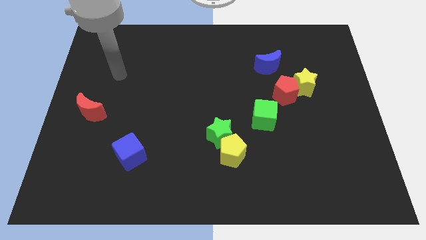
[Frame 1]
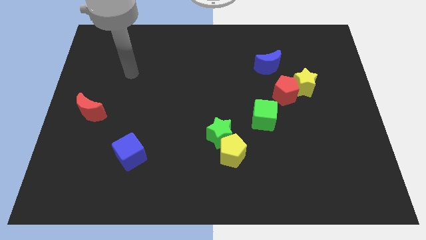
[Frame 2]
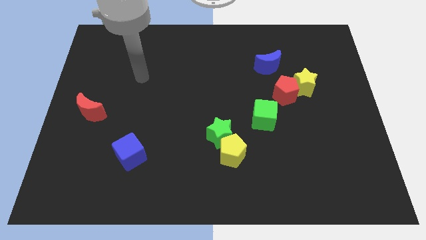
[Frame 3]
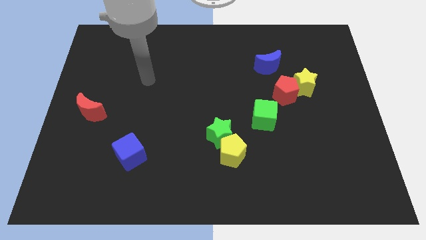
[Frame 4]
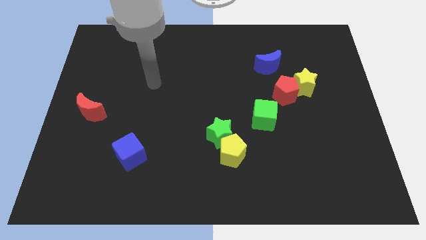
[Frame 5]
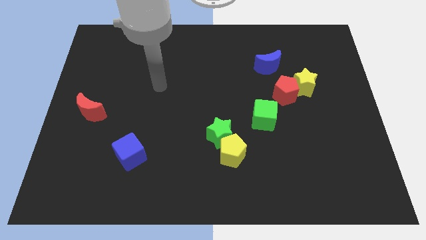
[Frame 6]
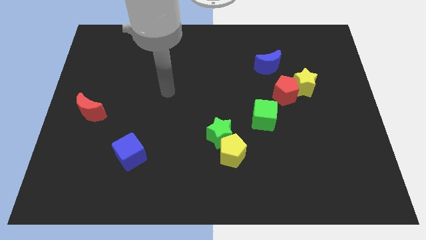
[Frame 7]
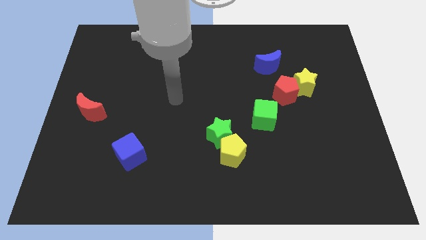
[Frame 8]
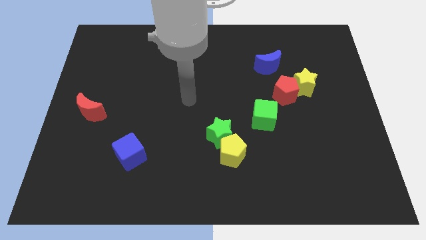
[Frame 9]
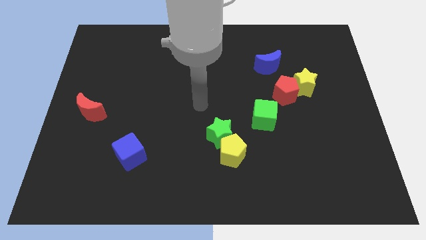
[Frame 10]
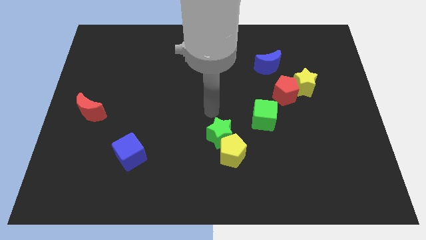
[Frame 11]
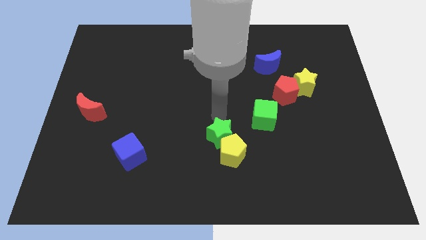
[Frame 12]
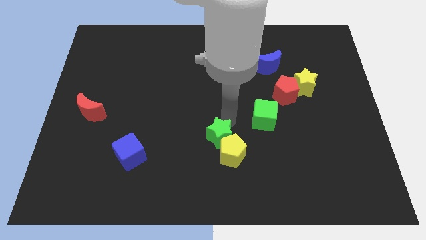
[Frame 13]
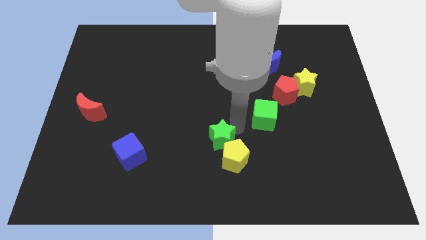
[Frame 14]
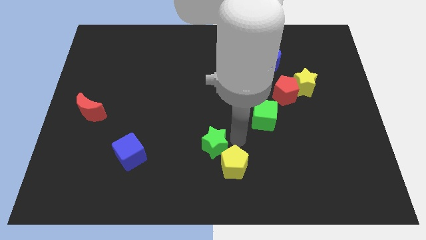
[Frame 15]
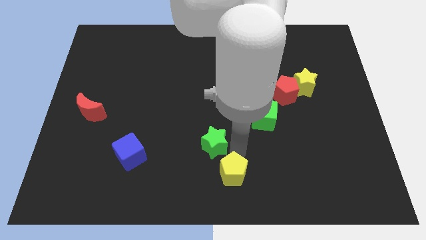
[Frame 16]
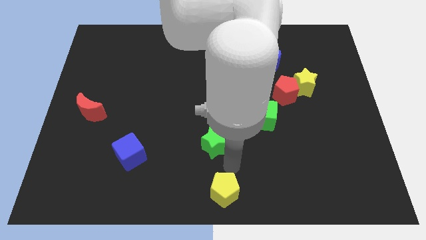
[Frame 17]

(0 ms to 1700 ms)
separate the green star from the yellow pentagon

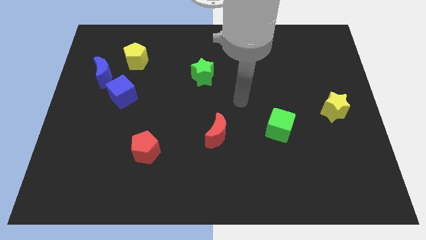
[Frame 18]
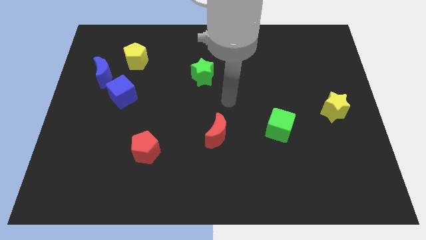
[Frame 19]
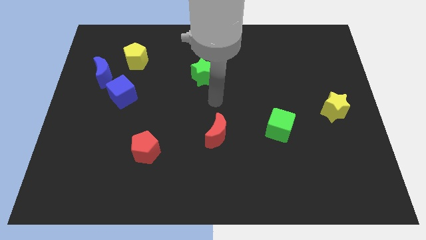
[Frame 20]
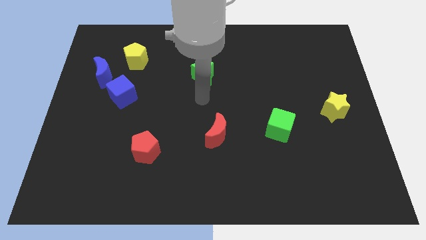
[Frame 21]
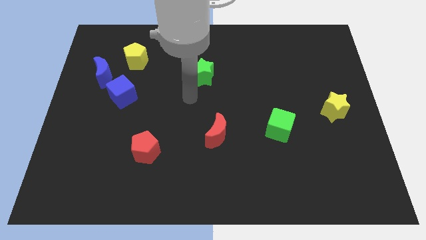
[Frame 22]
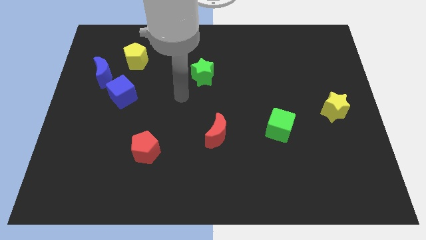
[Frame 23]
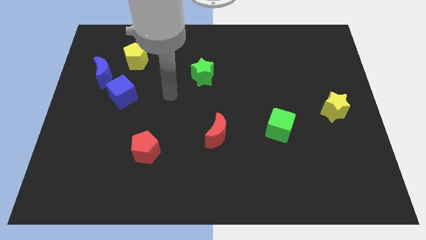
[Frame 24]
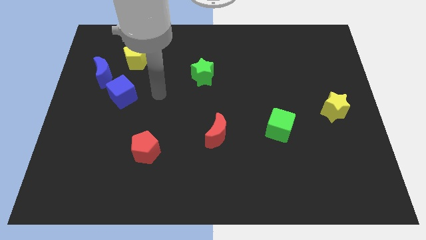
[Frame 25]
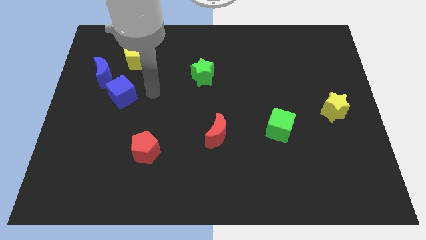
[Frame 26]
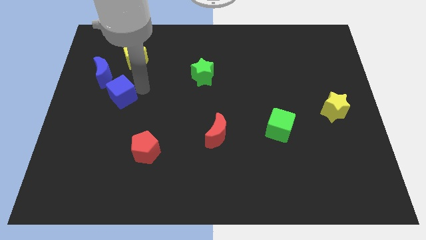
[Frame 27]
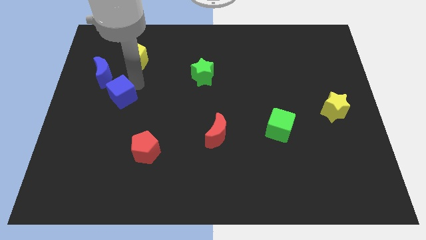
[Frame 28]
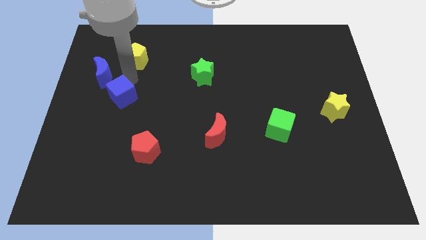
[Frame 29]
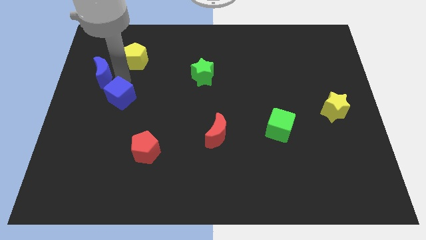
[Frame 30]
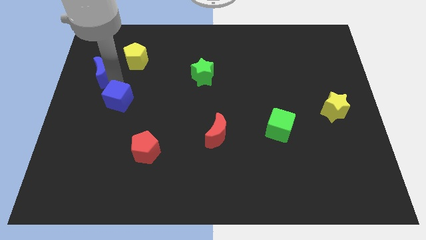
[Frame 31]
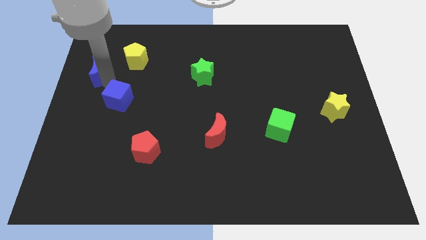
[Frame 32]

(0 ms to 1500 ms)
pull the blue cube apart from the blue moon

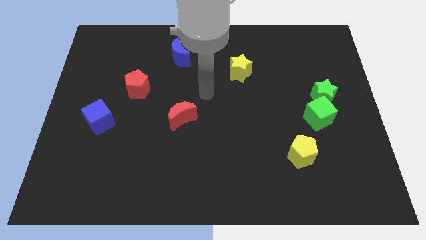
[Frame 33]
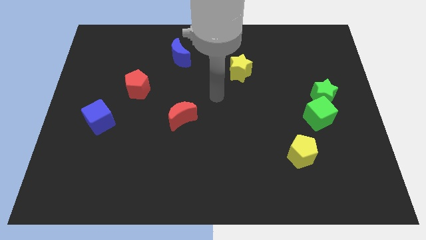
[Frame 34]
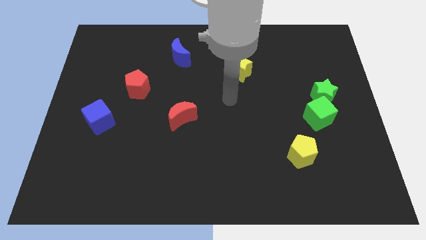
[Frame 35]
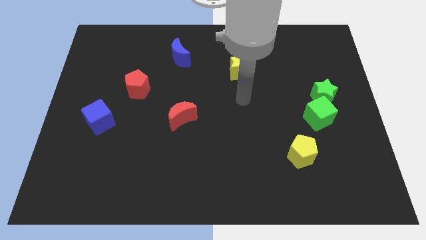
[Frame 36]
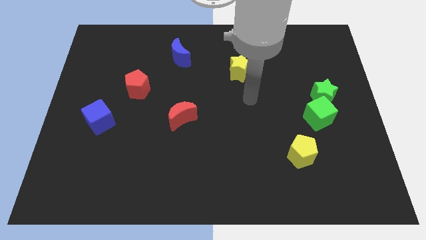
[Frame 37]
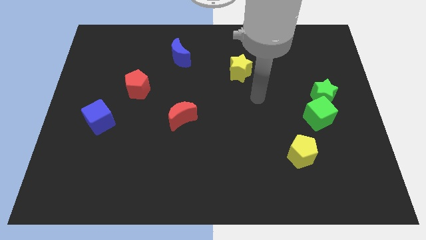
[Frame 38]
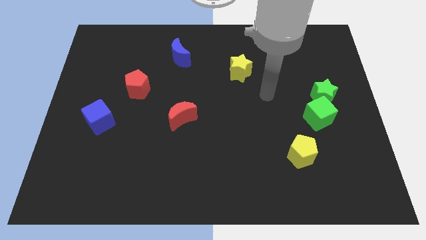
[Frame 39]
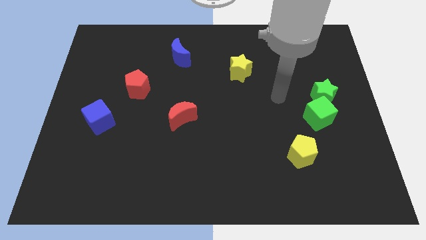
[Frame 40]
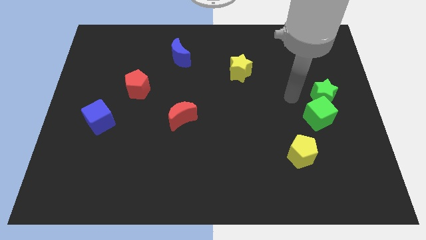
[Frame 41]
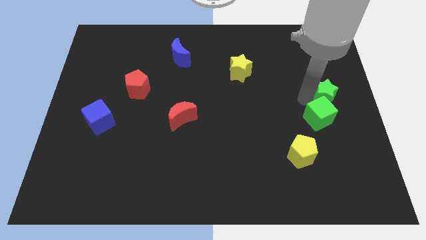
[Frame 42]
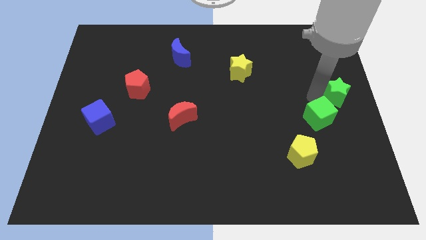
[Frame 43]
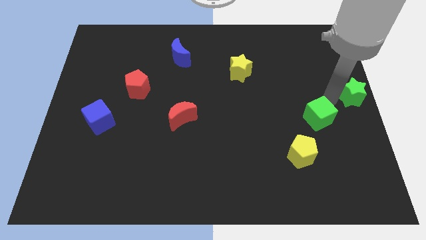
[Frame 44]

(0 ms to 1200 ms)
pull the green cube apart from the green star

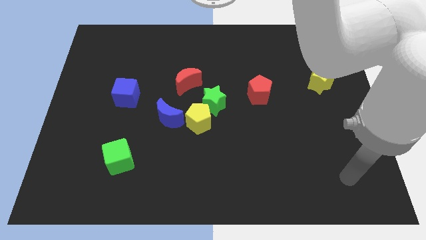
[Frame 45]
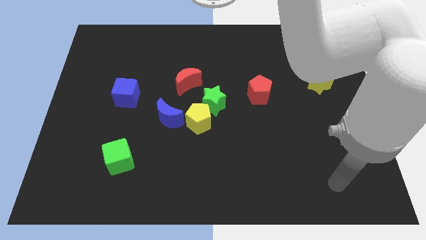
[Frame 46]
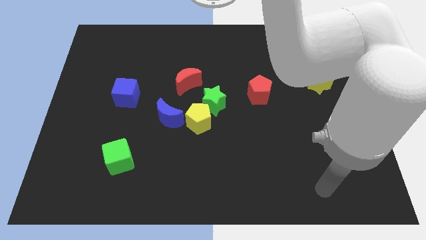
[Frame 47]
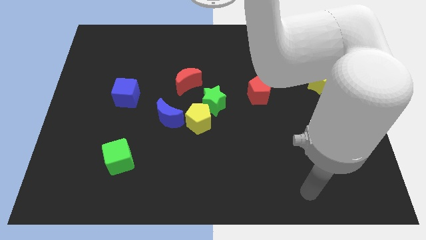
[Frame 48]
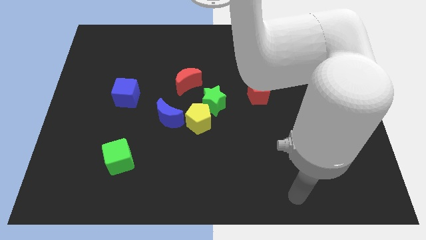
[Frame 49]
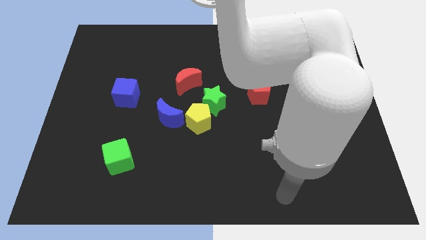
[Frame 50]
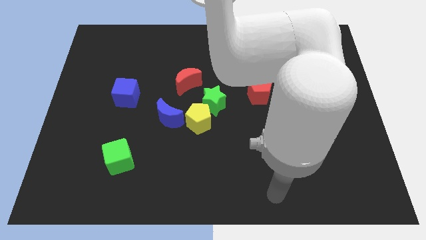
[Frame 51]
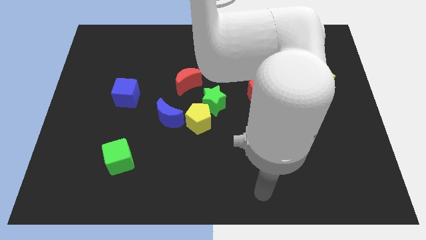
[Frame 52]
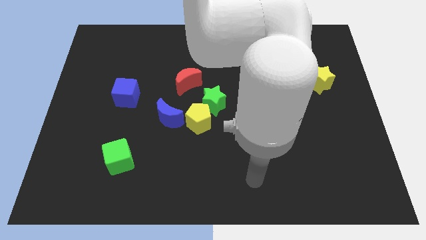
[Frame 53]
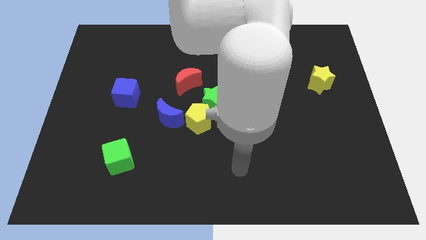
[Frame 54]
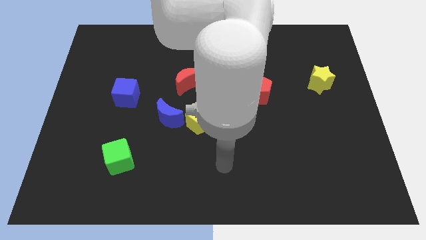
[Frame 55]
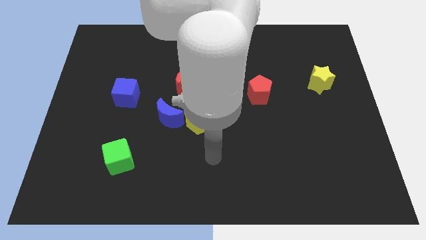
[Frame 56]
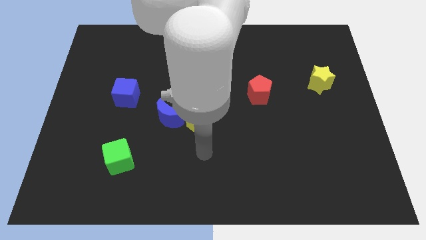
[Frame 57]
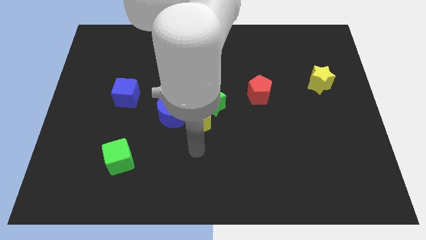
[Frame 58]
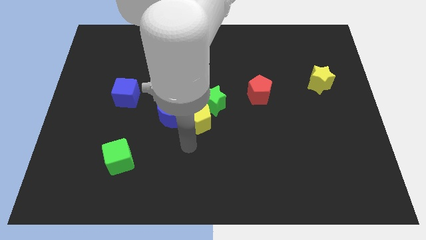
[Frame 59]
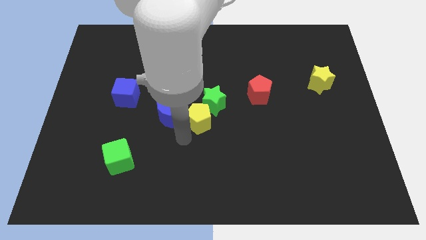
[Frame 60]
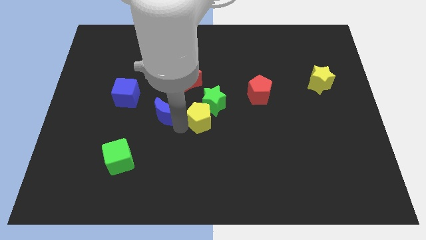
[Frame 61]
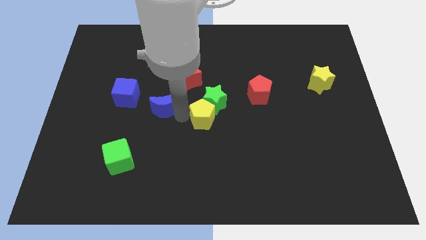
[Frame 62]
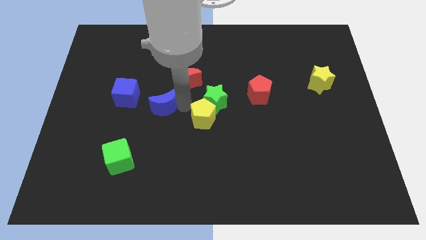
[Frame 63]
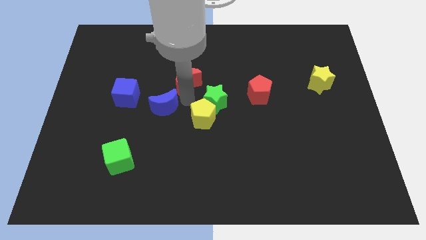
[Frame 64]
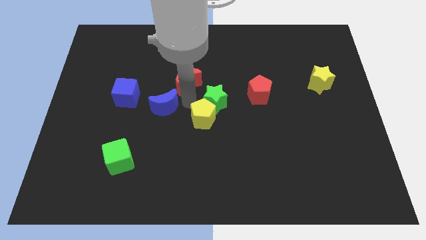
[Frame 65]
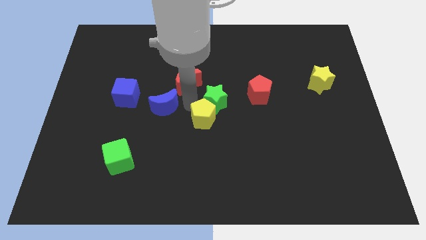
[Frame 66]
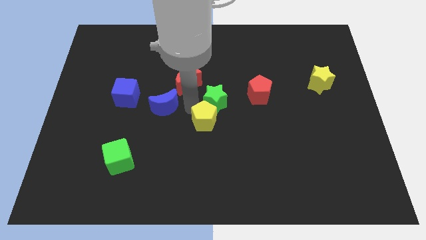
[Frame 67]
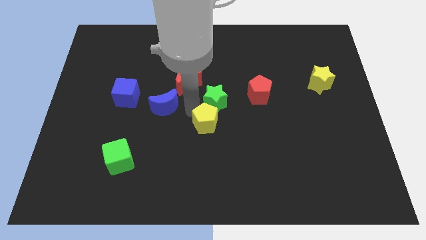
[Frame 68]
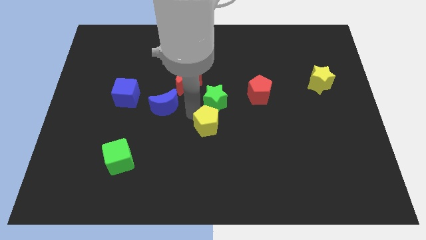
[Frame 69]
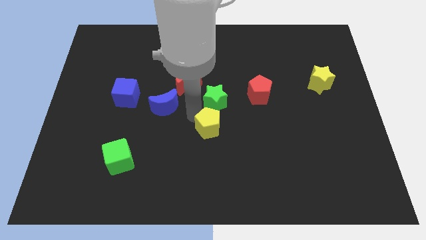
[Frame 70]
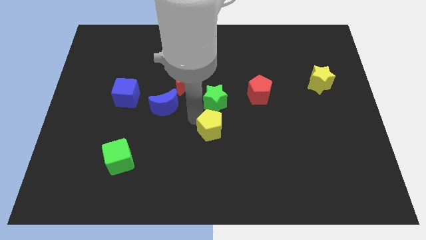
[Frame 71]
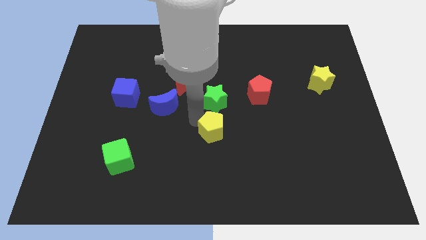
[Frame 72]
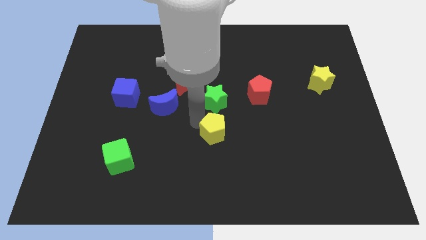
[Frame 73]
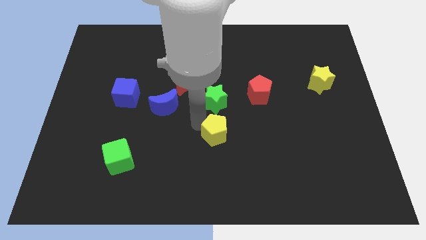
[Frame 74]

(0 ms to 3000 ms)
separate the yellow pentagon from the green star and blue moon

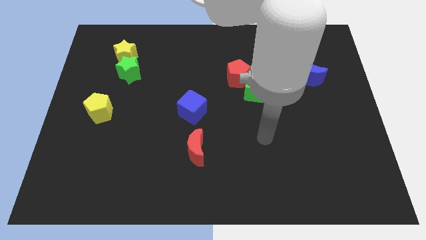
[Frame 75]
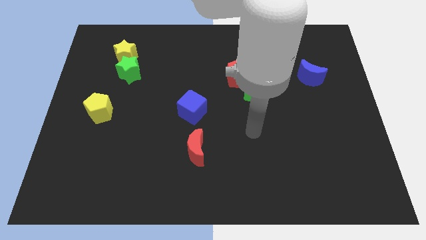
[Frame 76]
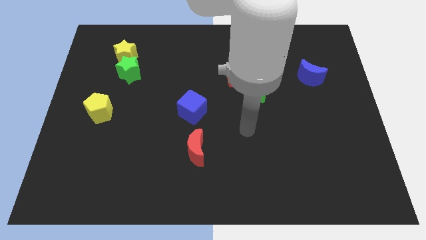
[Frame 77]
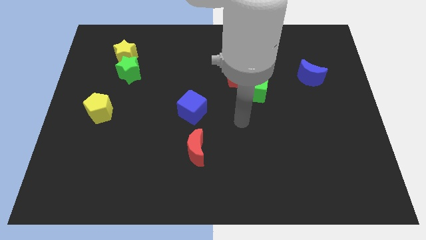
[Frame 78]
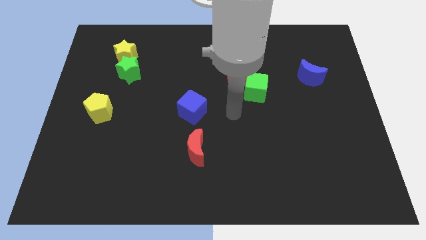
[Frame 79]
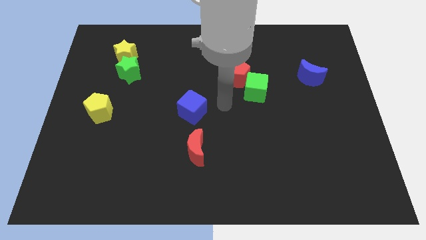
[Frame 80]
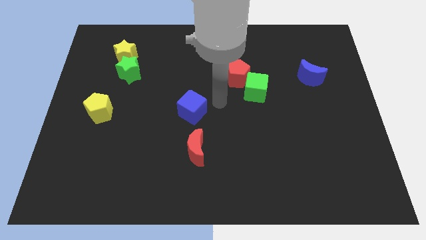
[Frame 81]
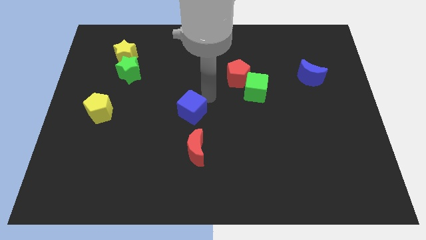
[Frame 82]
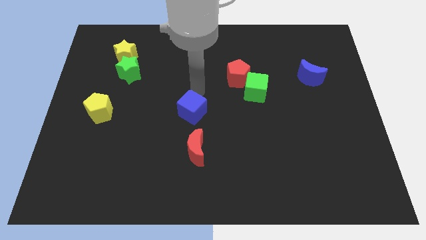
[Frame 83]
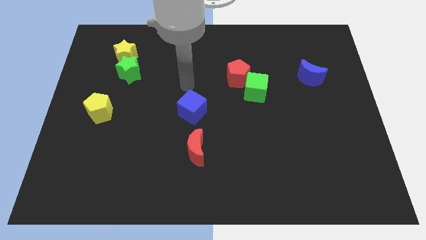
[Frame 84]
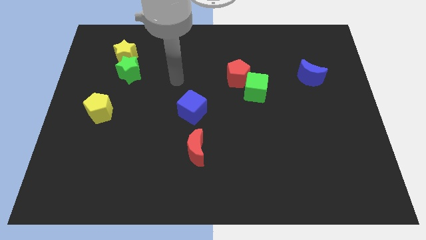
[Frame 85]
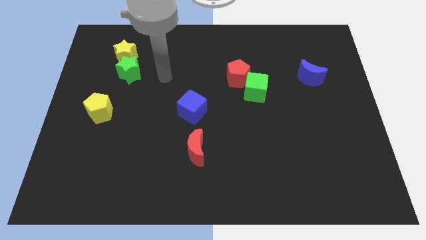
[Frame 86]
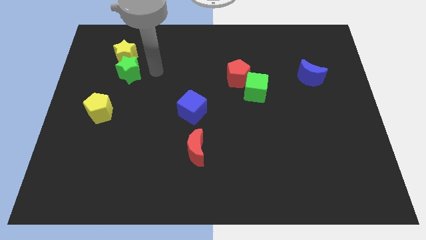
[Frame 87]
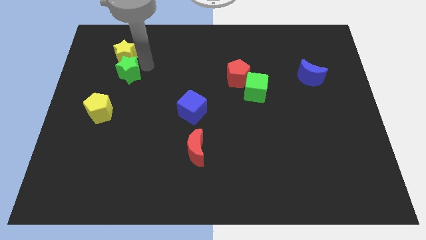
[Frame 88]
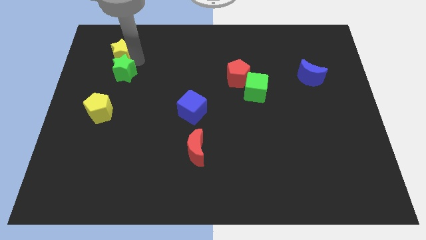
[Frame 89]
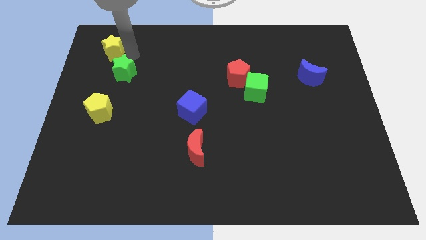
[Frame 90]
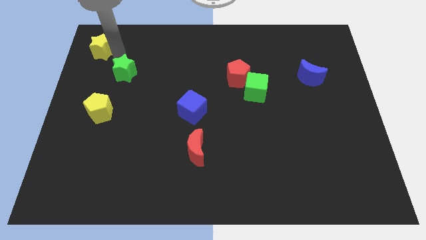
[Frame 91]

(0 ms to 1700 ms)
pull the green star apart from the yellow star
